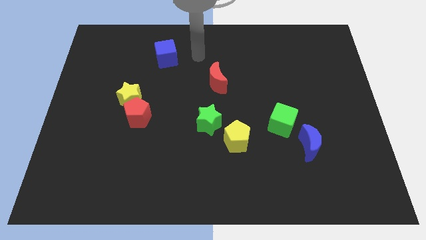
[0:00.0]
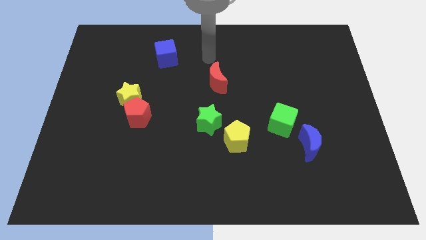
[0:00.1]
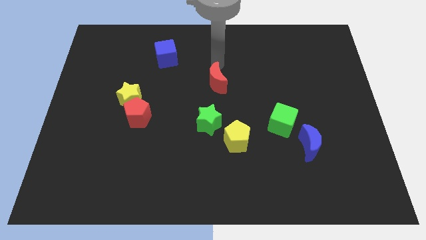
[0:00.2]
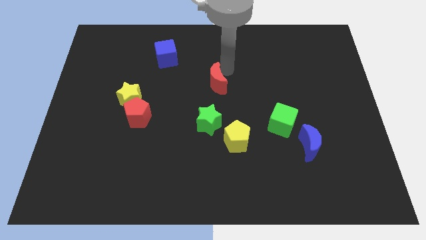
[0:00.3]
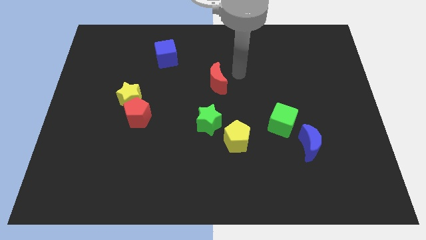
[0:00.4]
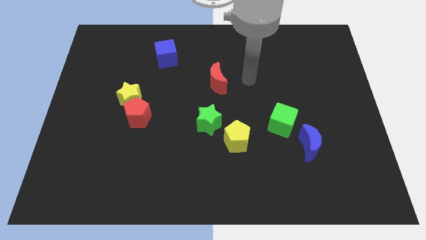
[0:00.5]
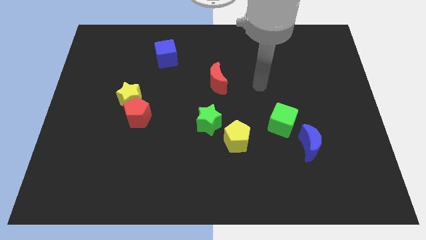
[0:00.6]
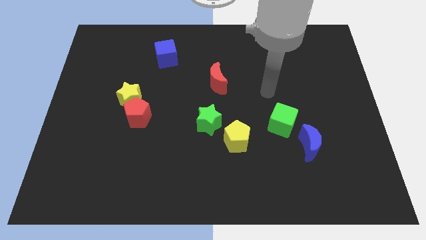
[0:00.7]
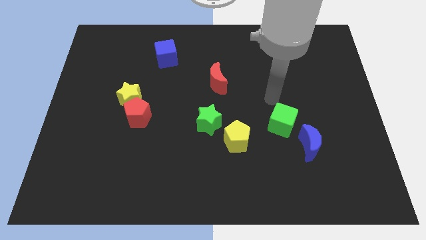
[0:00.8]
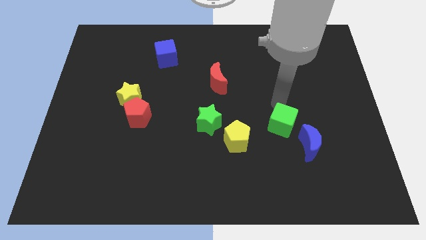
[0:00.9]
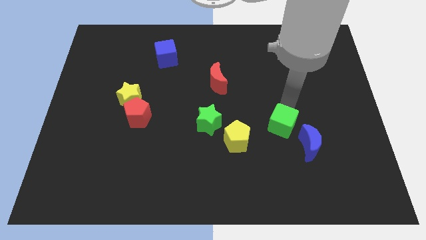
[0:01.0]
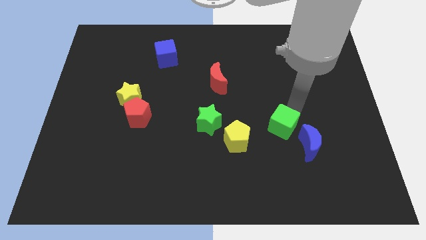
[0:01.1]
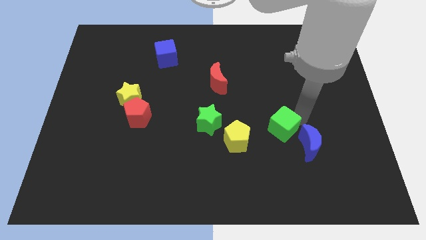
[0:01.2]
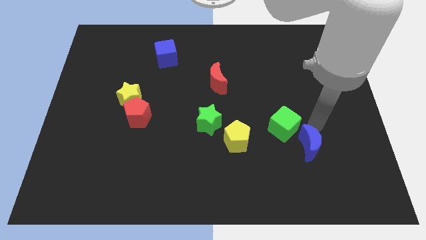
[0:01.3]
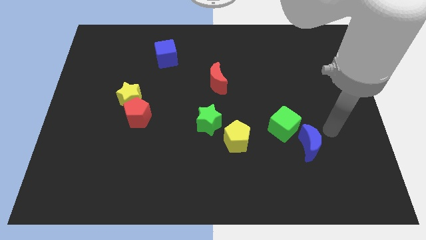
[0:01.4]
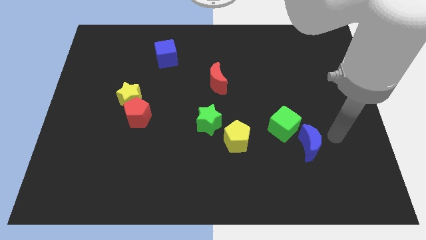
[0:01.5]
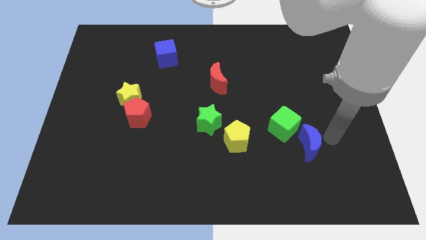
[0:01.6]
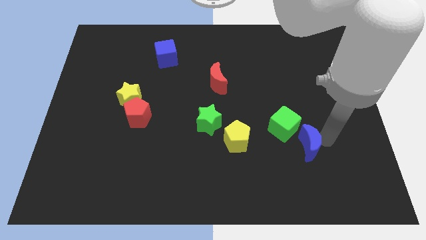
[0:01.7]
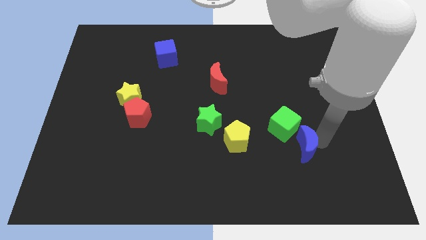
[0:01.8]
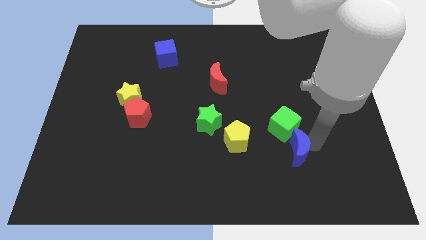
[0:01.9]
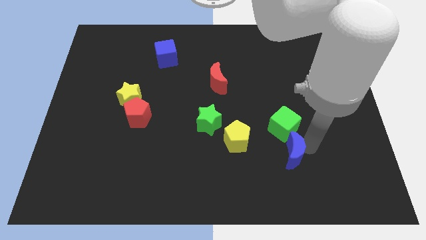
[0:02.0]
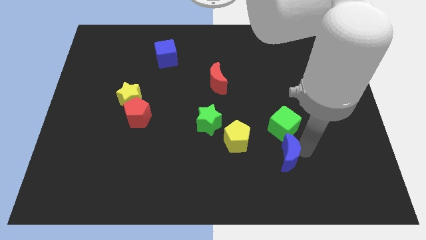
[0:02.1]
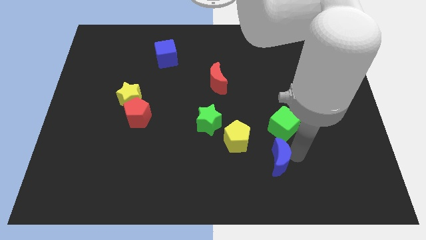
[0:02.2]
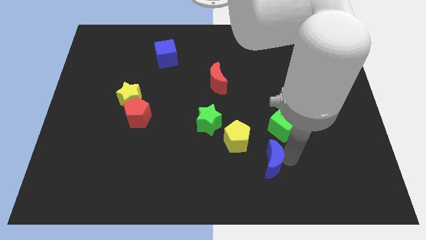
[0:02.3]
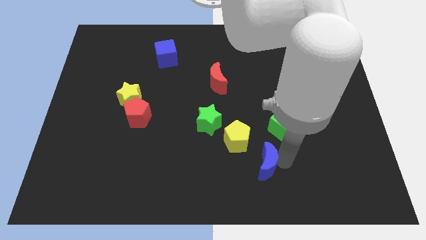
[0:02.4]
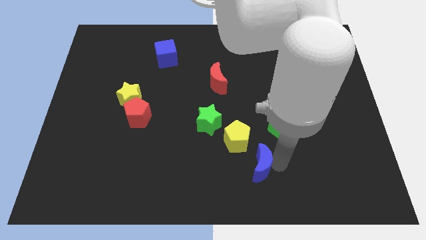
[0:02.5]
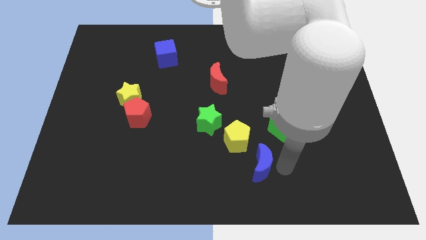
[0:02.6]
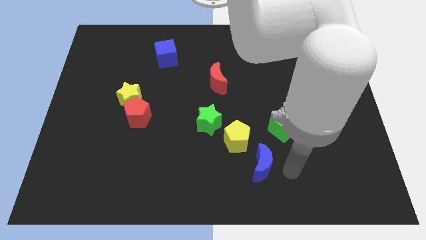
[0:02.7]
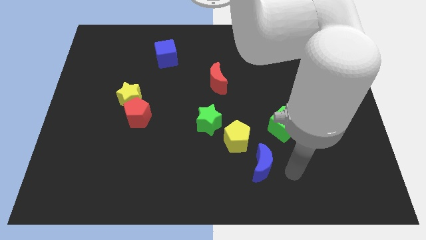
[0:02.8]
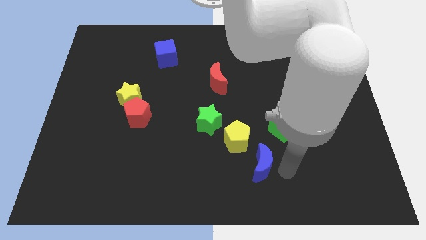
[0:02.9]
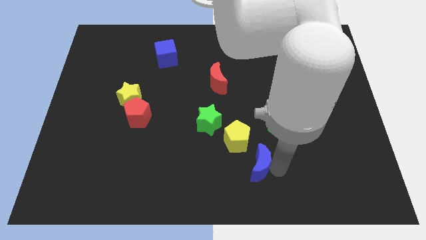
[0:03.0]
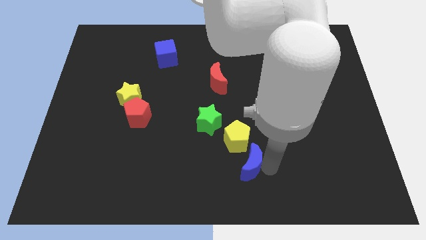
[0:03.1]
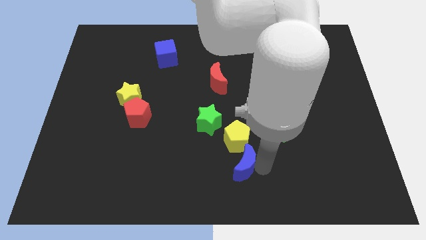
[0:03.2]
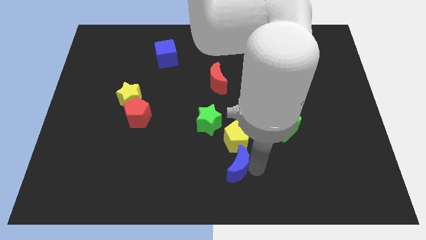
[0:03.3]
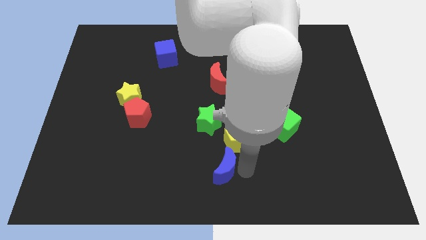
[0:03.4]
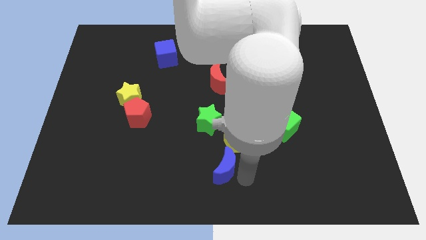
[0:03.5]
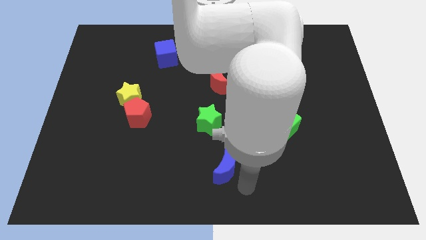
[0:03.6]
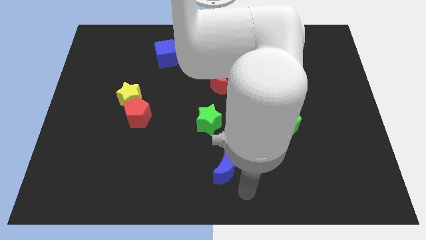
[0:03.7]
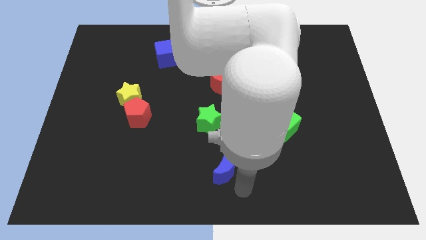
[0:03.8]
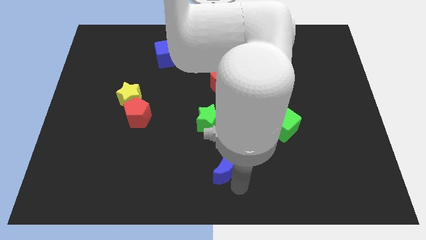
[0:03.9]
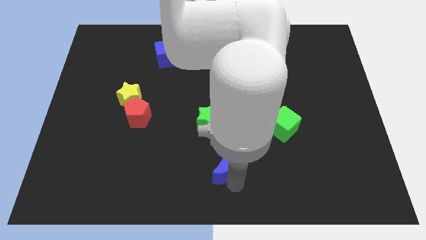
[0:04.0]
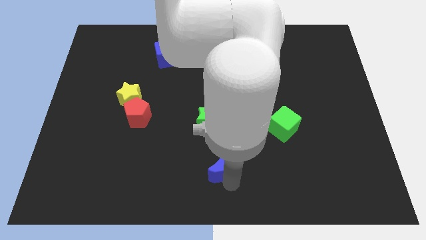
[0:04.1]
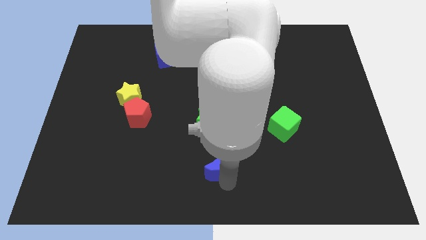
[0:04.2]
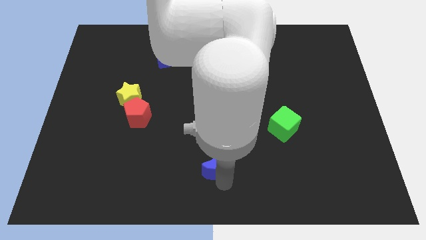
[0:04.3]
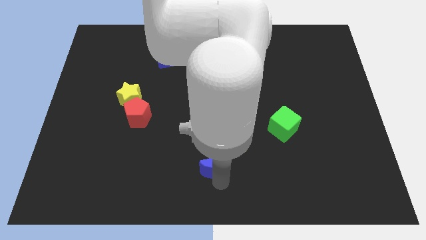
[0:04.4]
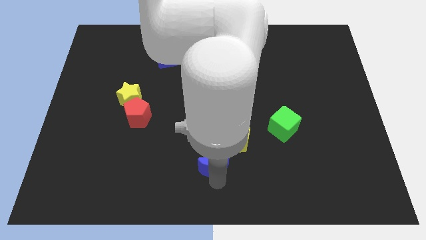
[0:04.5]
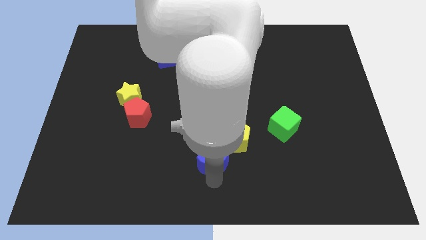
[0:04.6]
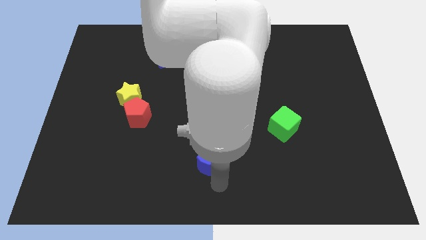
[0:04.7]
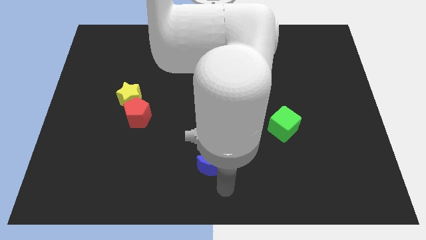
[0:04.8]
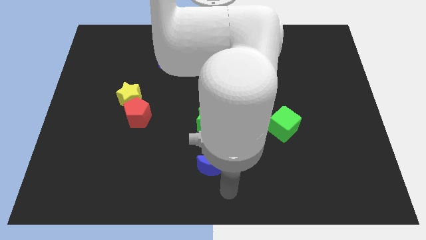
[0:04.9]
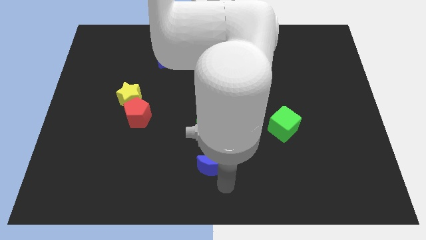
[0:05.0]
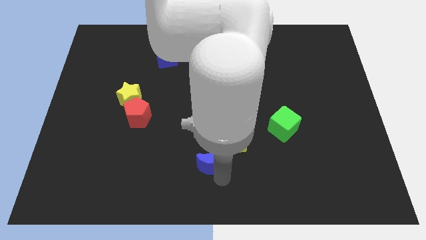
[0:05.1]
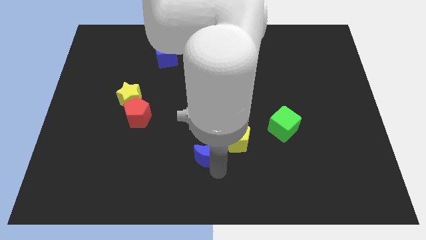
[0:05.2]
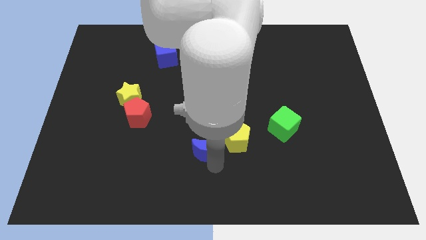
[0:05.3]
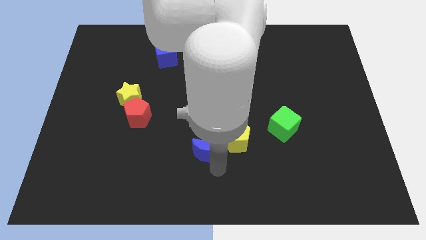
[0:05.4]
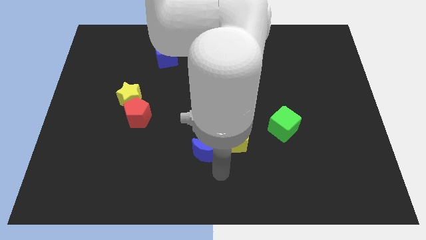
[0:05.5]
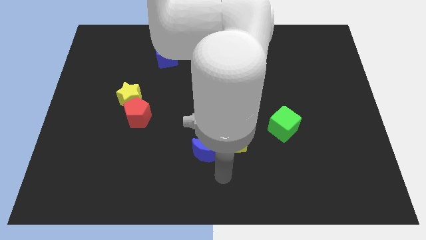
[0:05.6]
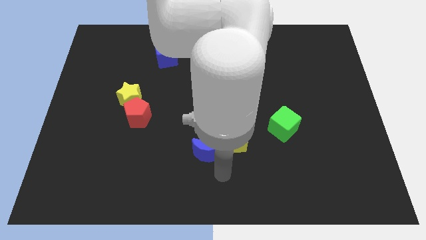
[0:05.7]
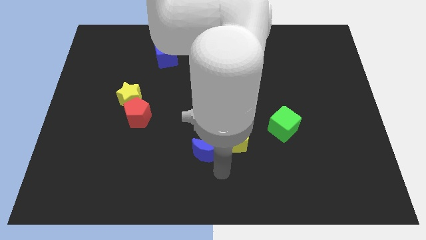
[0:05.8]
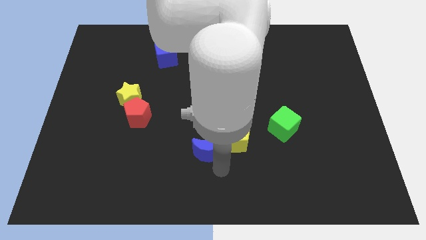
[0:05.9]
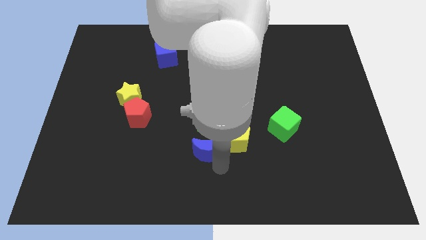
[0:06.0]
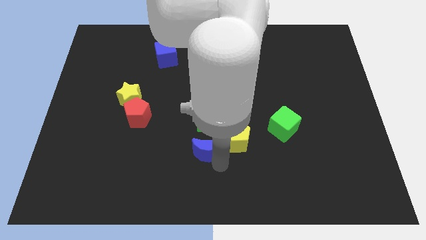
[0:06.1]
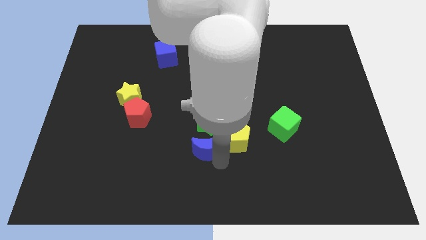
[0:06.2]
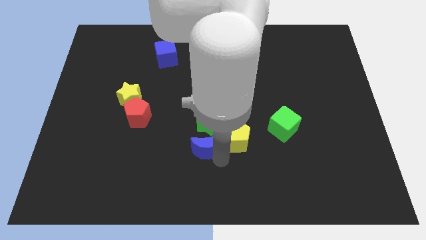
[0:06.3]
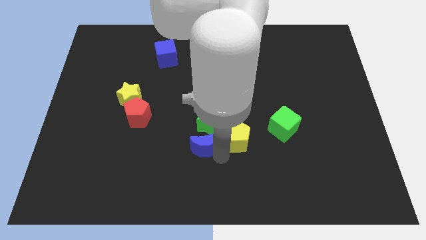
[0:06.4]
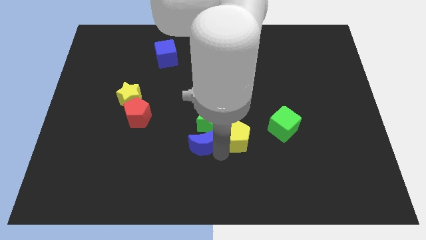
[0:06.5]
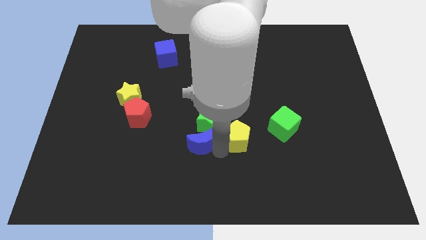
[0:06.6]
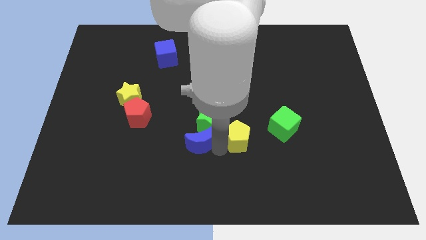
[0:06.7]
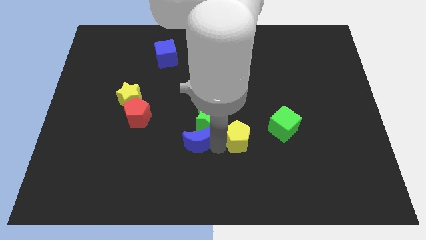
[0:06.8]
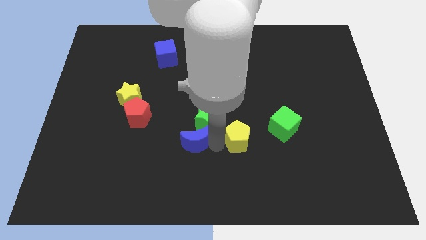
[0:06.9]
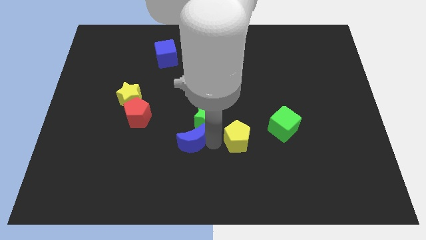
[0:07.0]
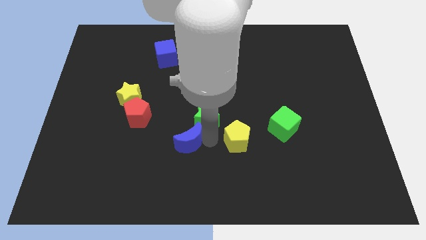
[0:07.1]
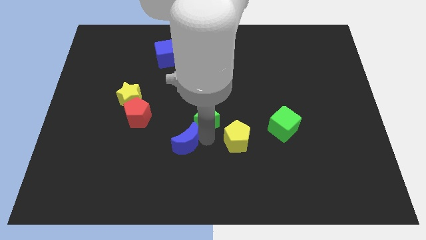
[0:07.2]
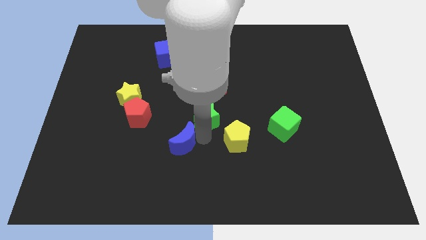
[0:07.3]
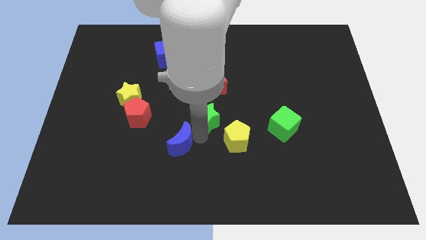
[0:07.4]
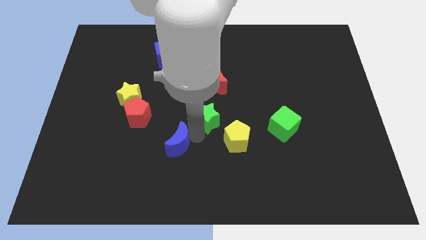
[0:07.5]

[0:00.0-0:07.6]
push the blue moon diagonally down and to the right of the red pentagon

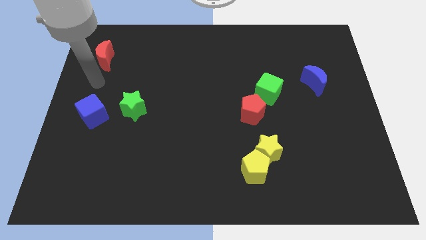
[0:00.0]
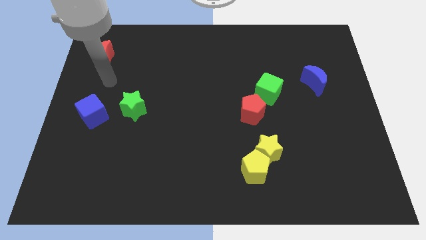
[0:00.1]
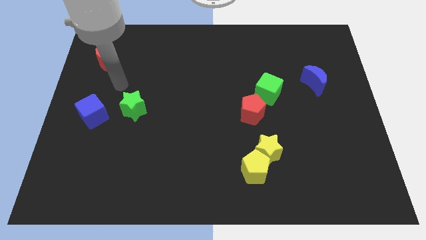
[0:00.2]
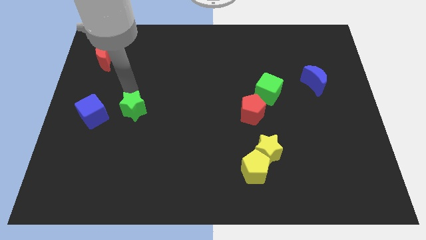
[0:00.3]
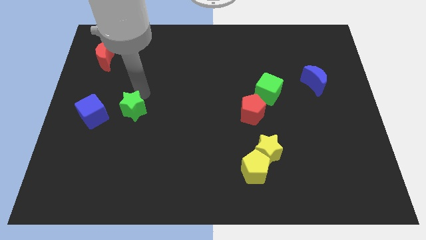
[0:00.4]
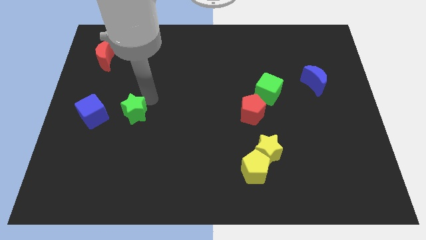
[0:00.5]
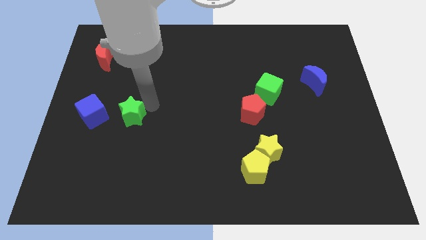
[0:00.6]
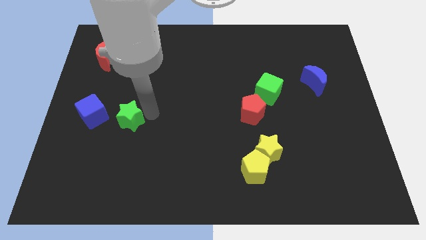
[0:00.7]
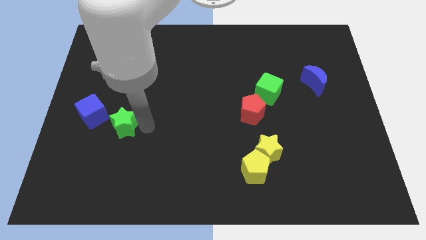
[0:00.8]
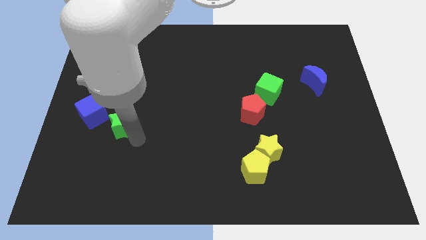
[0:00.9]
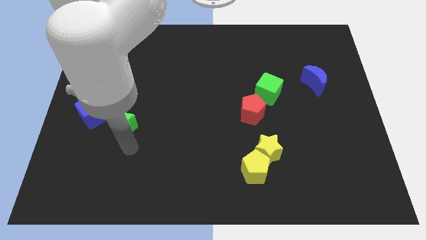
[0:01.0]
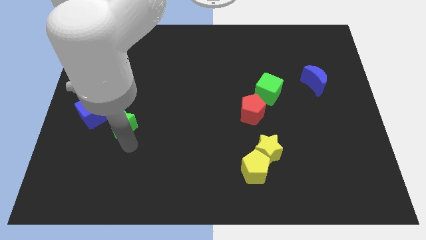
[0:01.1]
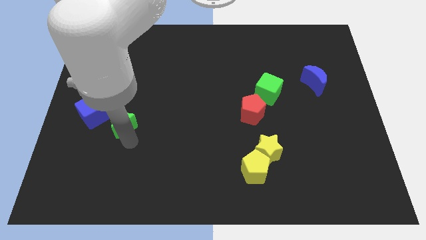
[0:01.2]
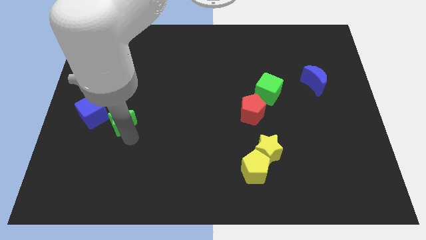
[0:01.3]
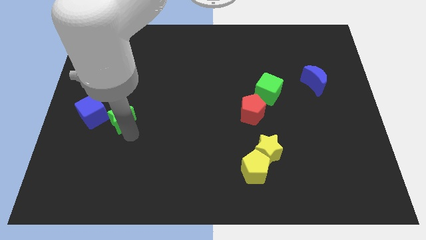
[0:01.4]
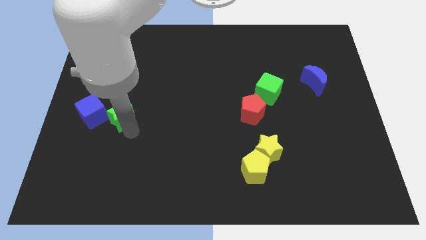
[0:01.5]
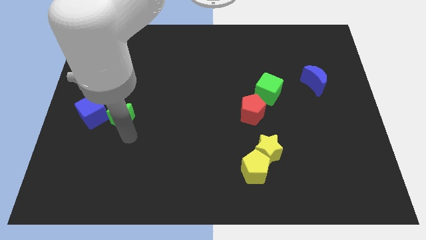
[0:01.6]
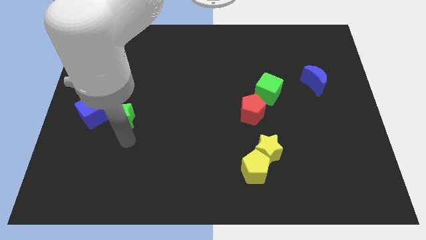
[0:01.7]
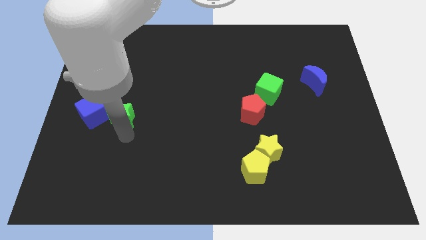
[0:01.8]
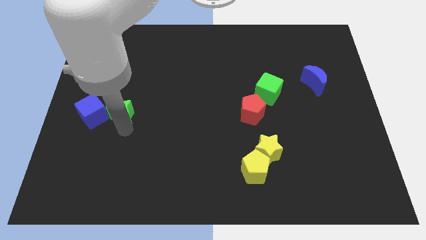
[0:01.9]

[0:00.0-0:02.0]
push the green star diagonally up and to the right of the blue cube
